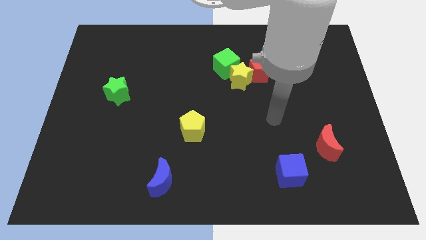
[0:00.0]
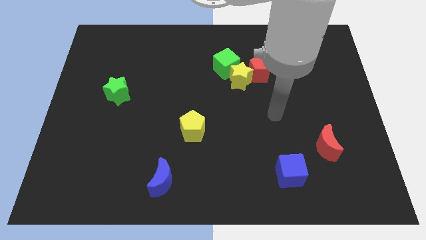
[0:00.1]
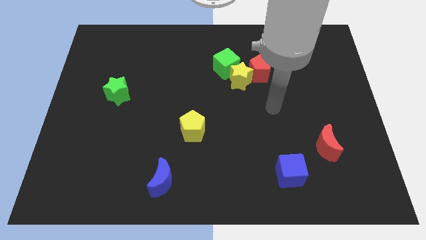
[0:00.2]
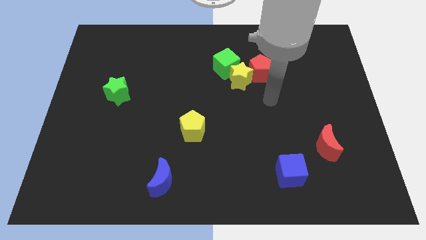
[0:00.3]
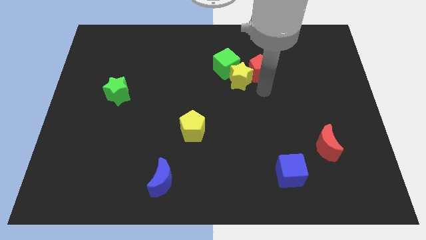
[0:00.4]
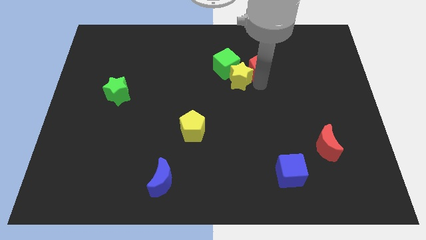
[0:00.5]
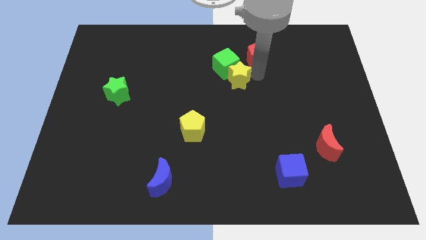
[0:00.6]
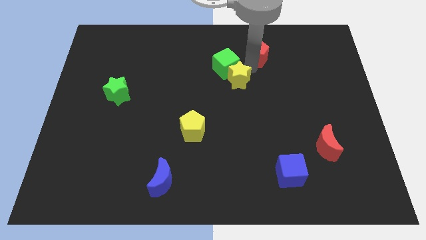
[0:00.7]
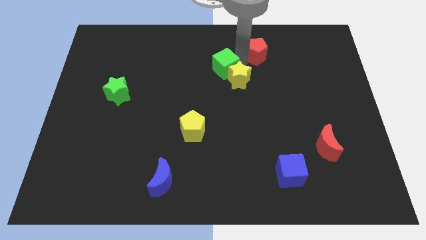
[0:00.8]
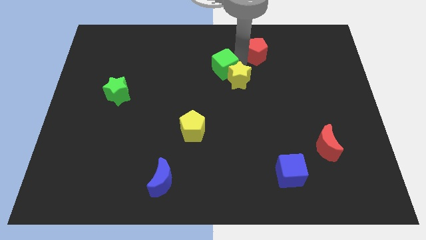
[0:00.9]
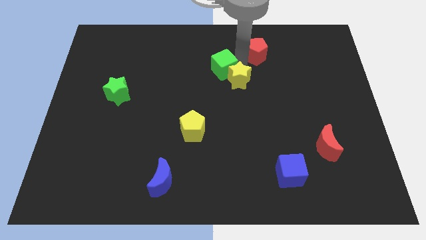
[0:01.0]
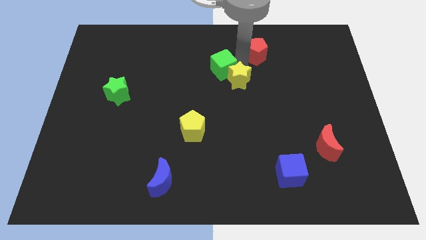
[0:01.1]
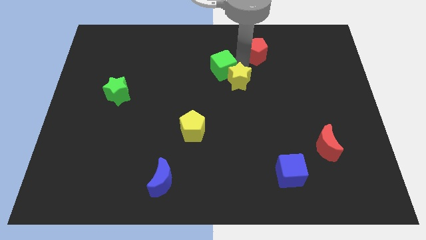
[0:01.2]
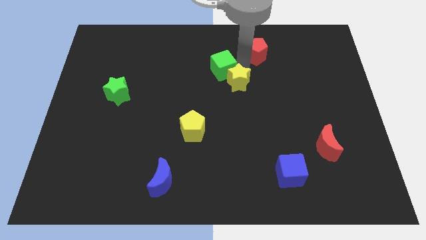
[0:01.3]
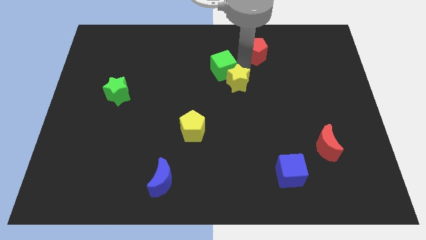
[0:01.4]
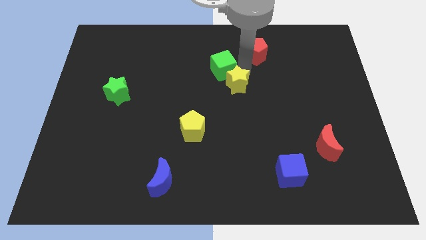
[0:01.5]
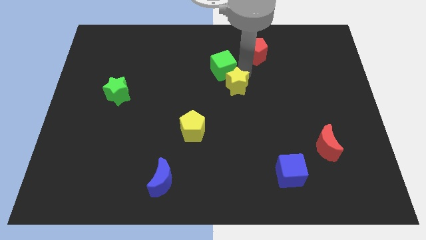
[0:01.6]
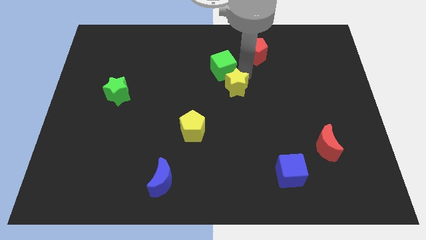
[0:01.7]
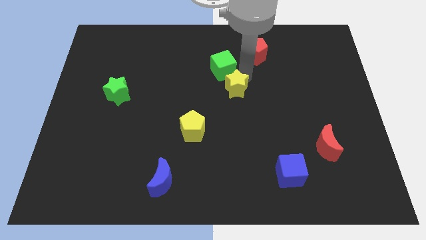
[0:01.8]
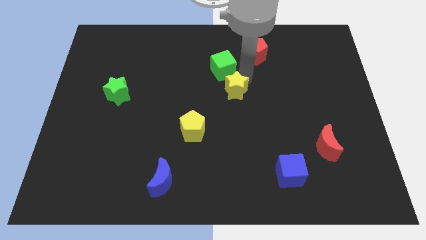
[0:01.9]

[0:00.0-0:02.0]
move the yellow star away from the red pentagon and green cube

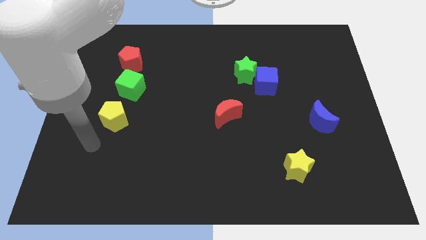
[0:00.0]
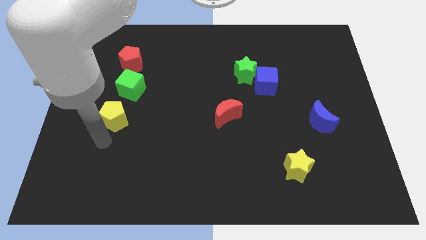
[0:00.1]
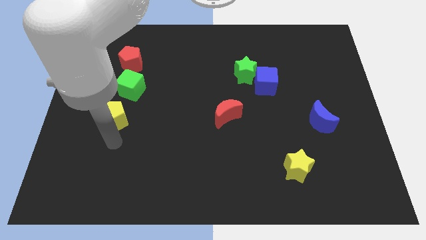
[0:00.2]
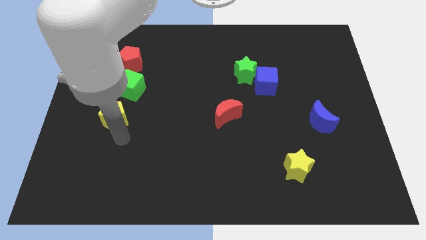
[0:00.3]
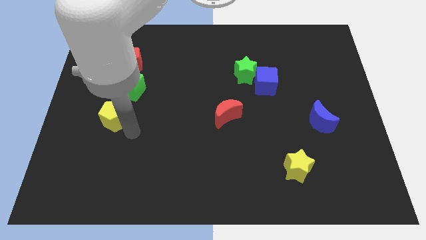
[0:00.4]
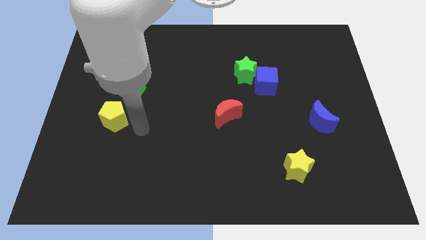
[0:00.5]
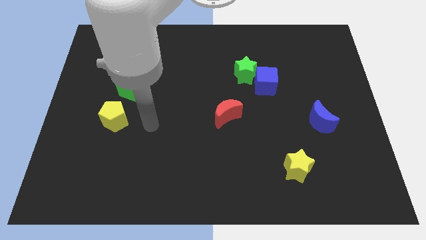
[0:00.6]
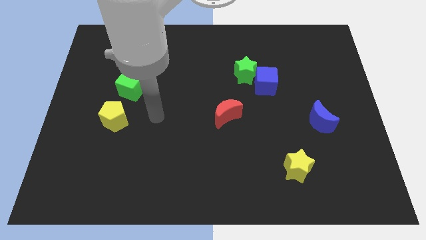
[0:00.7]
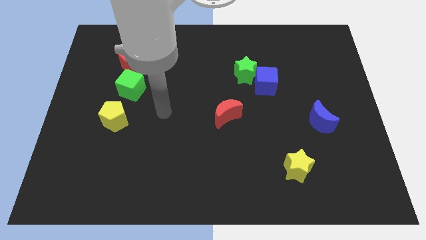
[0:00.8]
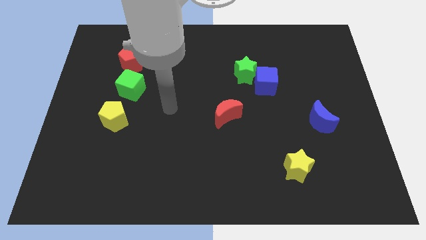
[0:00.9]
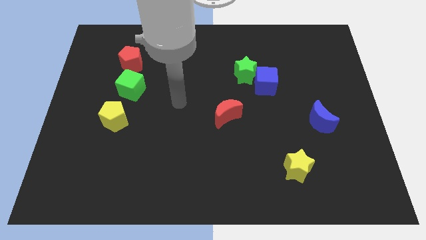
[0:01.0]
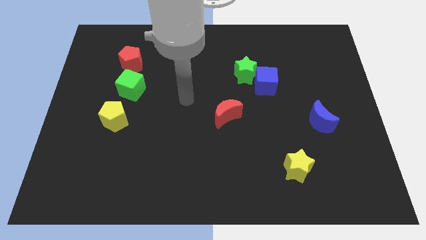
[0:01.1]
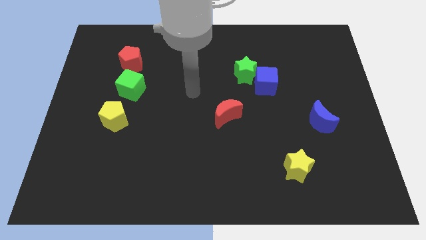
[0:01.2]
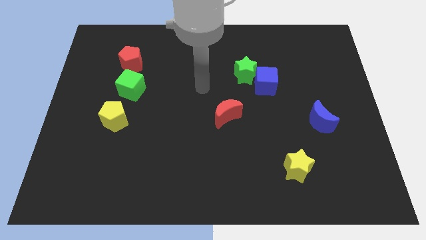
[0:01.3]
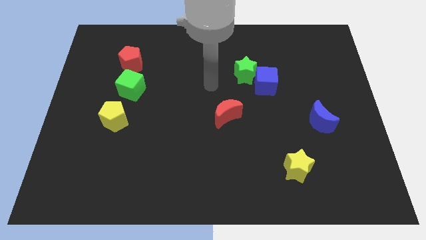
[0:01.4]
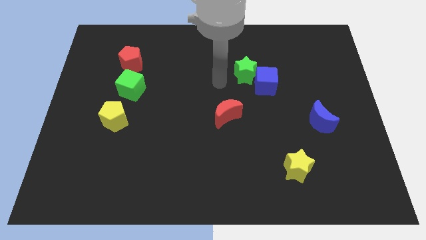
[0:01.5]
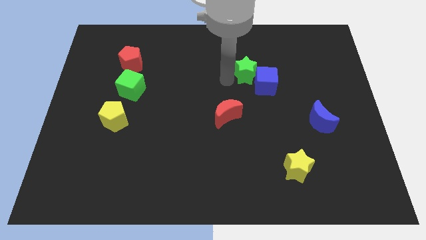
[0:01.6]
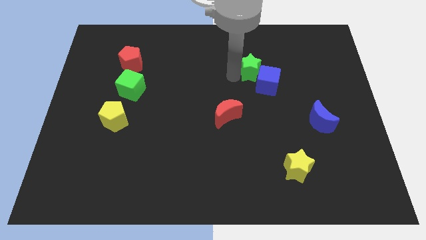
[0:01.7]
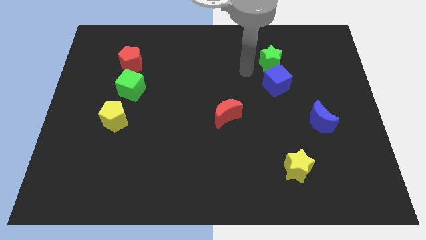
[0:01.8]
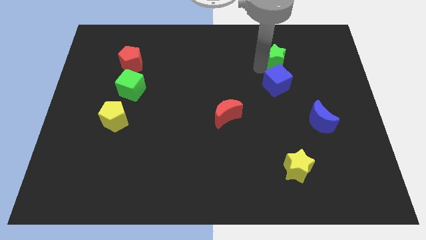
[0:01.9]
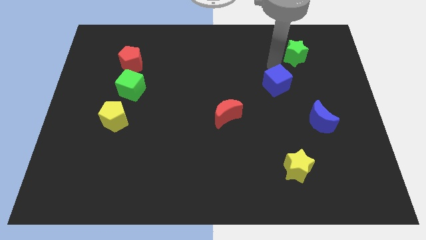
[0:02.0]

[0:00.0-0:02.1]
move the blue cube away from the green star

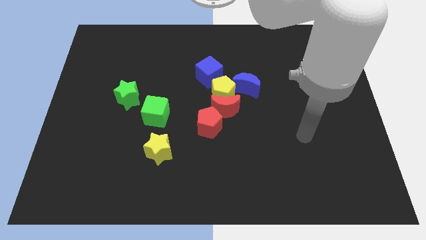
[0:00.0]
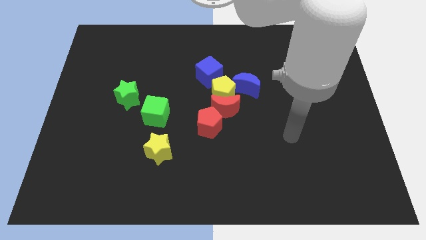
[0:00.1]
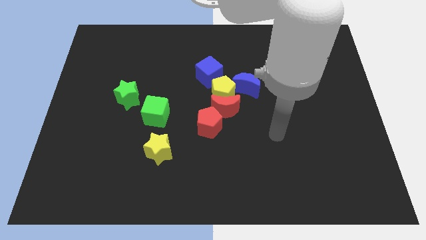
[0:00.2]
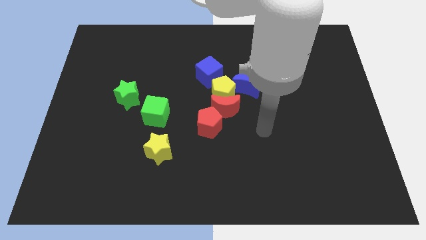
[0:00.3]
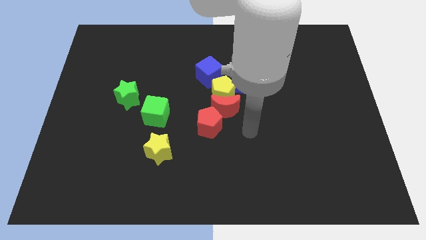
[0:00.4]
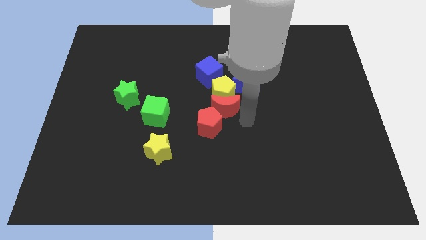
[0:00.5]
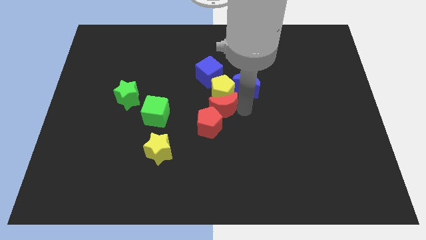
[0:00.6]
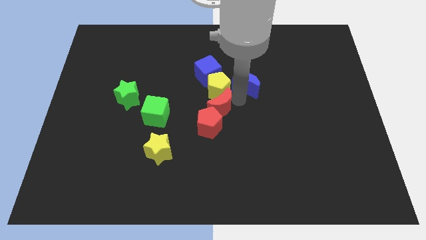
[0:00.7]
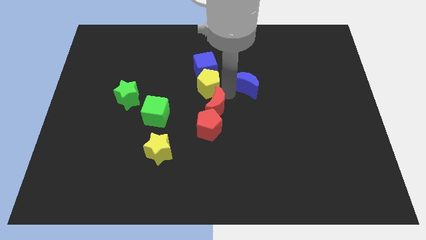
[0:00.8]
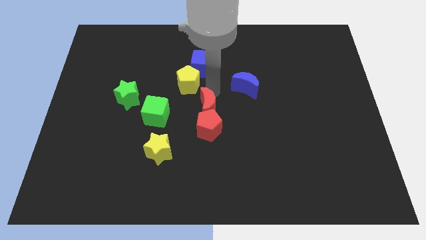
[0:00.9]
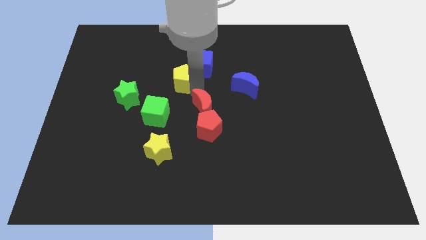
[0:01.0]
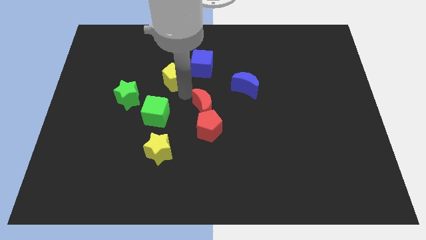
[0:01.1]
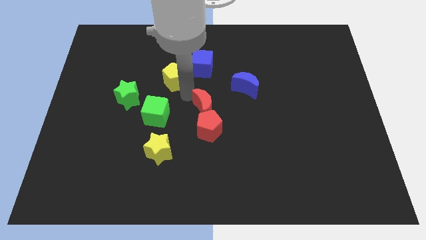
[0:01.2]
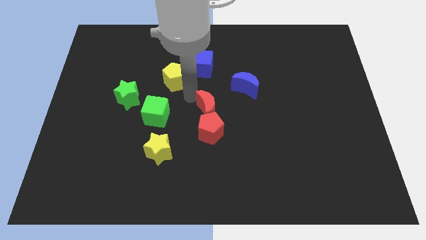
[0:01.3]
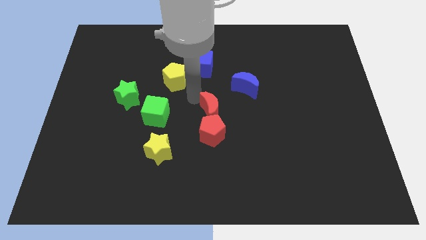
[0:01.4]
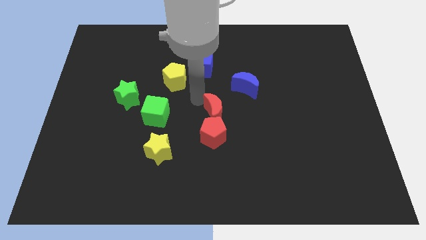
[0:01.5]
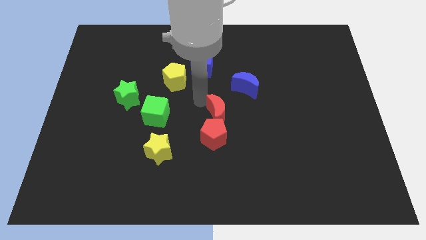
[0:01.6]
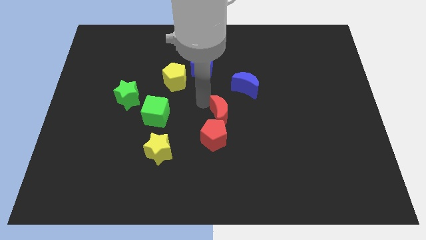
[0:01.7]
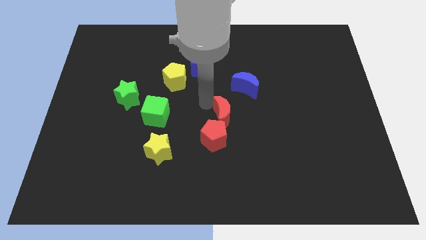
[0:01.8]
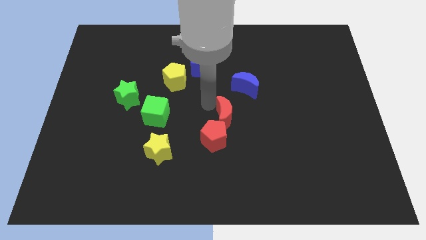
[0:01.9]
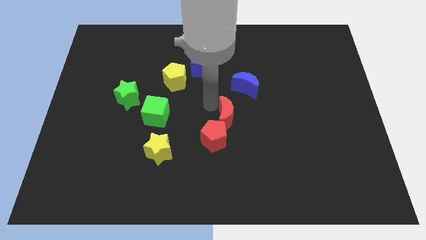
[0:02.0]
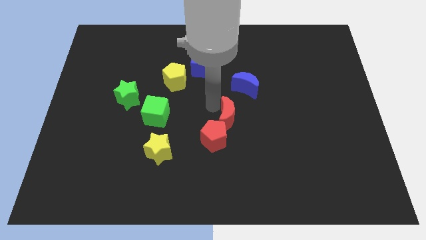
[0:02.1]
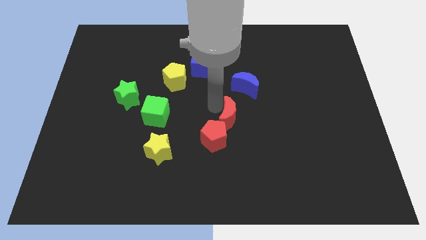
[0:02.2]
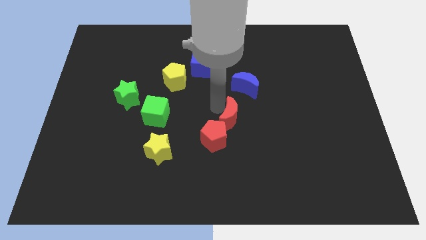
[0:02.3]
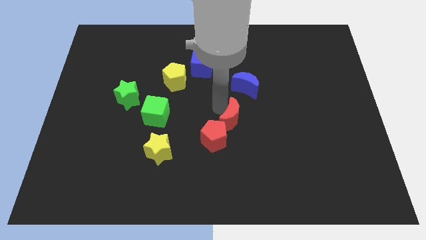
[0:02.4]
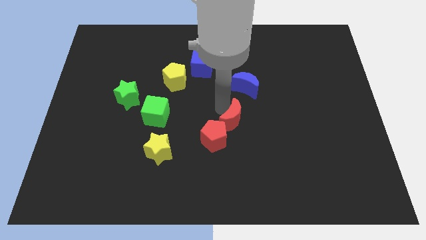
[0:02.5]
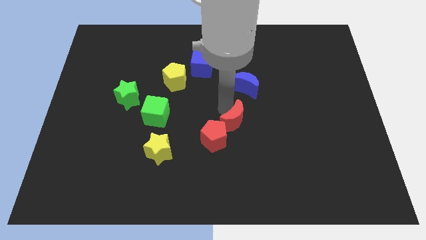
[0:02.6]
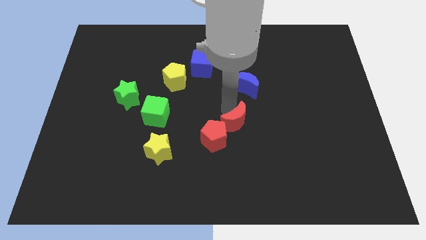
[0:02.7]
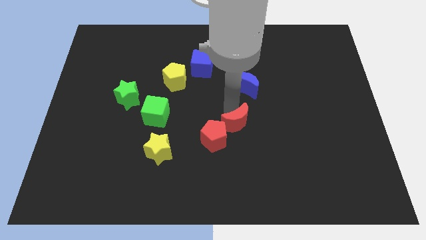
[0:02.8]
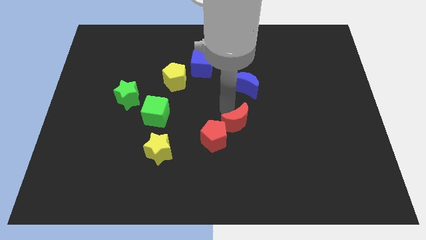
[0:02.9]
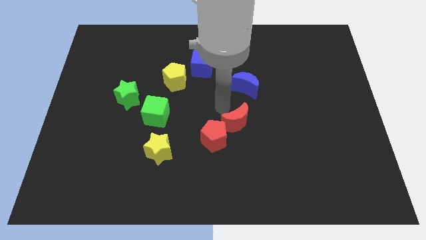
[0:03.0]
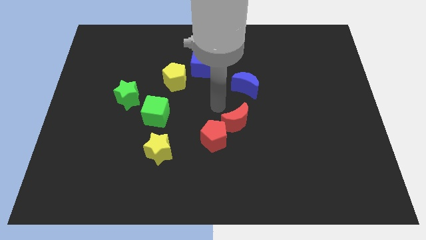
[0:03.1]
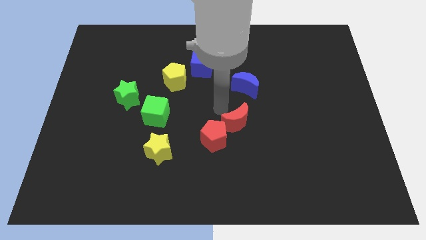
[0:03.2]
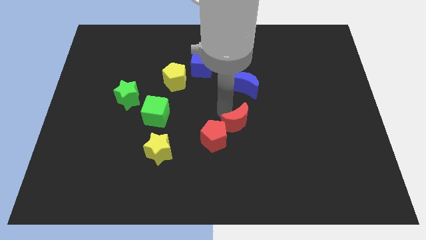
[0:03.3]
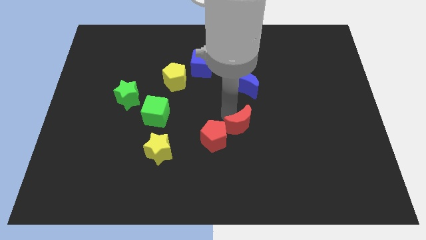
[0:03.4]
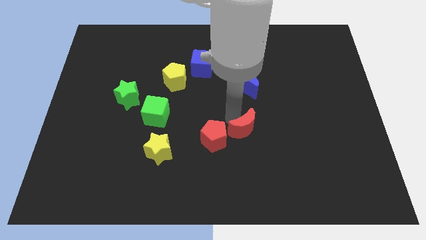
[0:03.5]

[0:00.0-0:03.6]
move the red moon away from the group of blocks

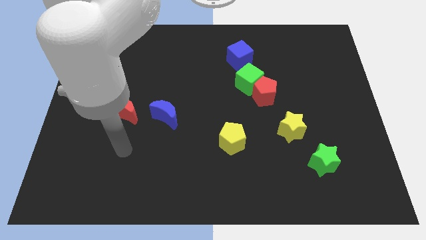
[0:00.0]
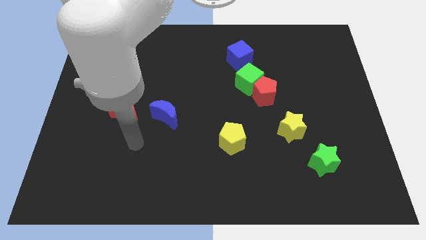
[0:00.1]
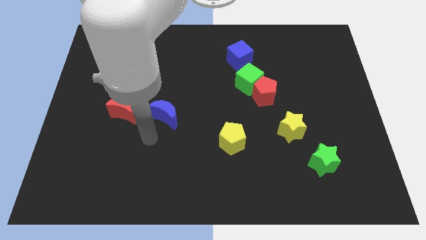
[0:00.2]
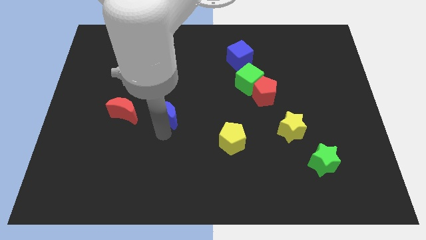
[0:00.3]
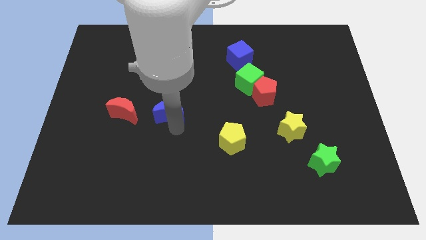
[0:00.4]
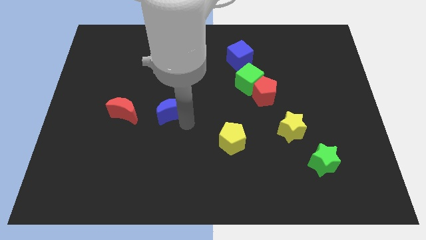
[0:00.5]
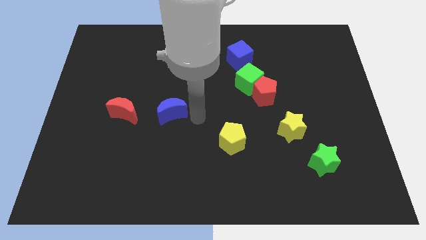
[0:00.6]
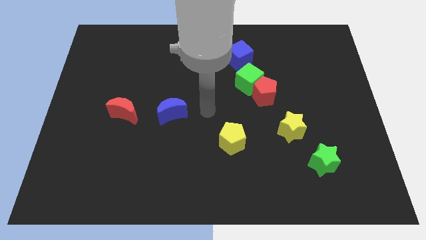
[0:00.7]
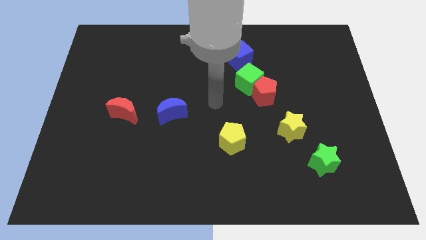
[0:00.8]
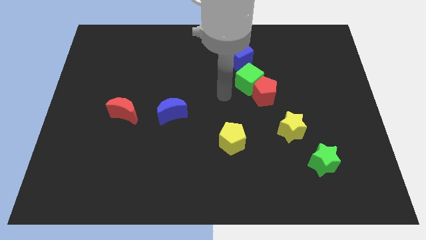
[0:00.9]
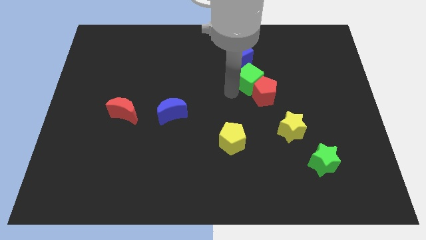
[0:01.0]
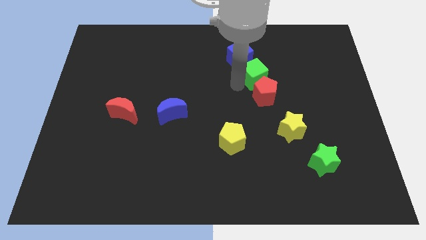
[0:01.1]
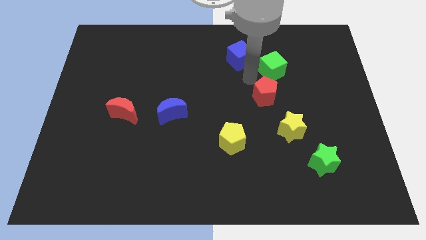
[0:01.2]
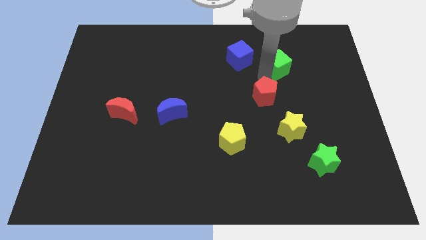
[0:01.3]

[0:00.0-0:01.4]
separate the red pentagon from the green cube

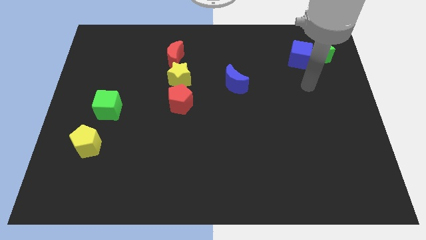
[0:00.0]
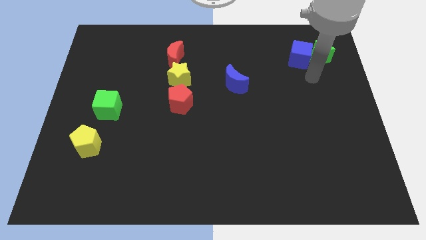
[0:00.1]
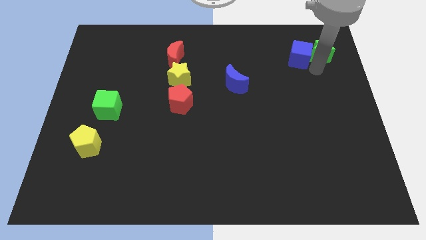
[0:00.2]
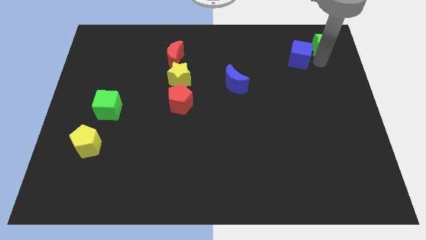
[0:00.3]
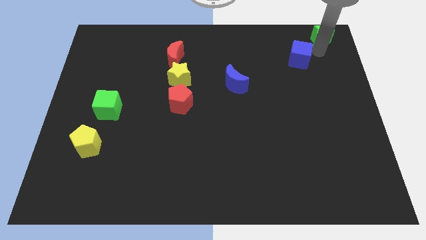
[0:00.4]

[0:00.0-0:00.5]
separate the blue cube from the green star

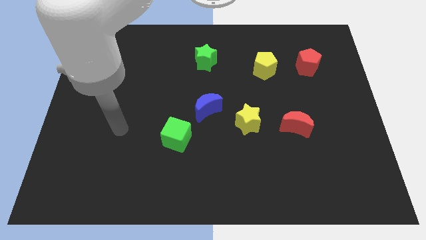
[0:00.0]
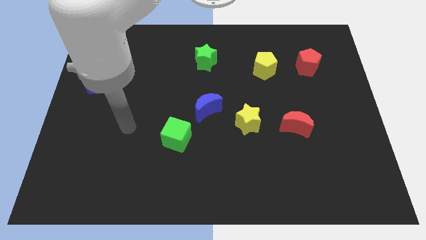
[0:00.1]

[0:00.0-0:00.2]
move the green cube away from the blue moon
